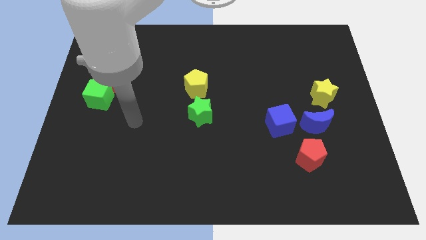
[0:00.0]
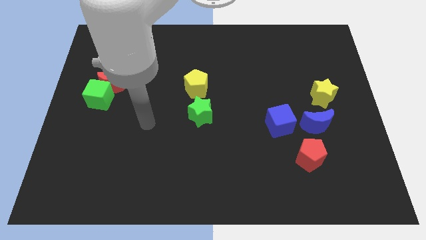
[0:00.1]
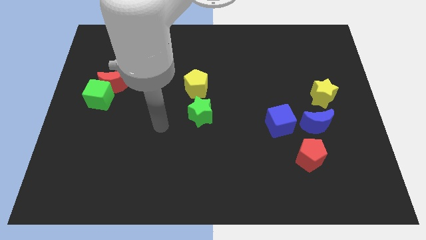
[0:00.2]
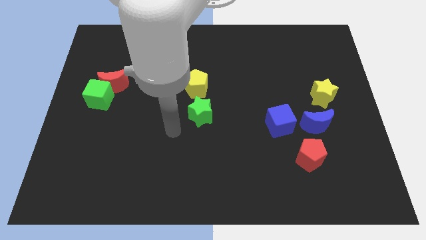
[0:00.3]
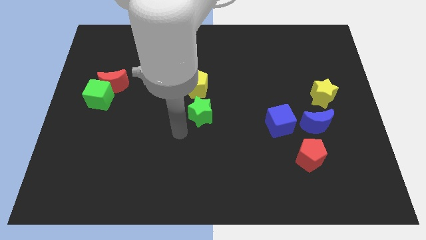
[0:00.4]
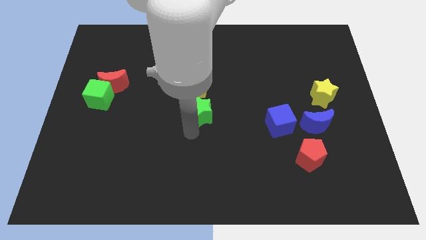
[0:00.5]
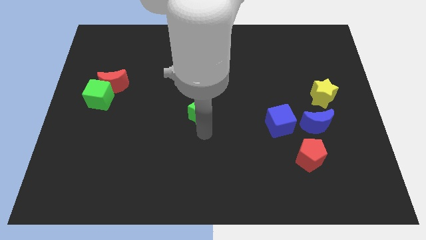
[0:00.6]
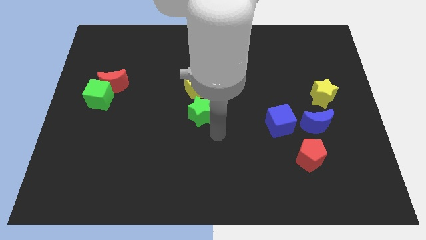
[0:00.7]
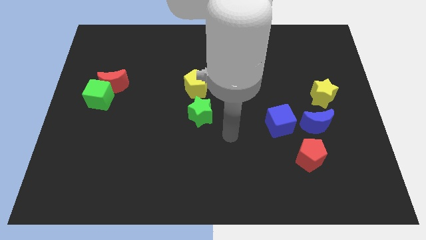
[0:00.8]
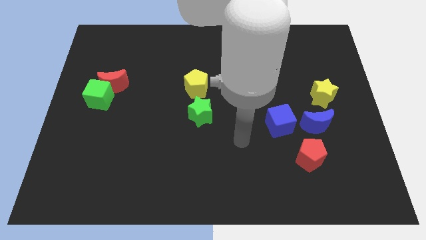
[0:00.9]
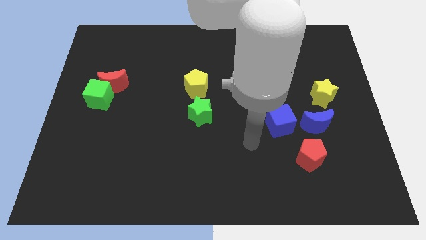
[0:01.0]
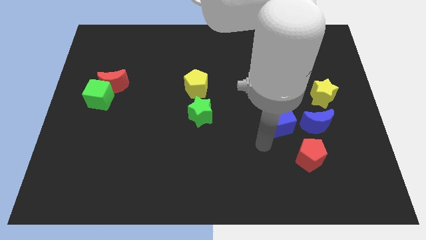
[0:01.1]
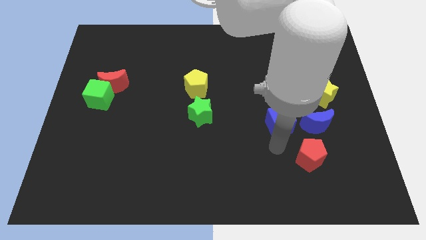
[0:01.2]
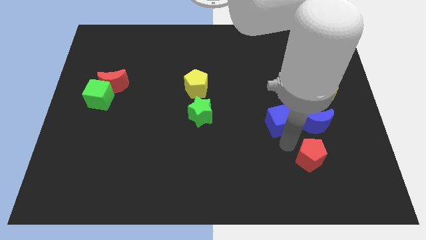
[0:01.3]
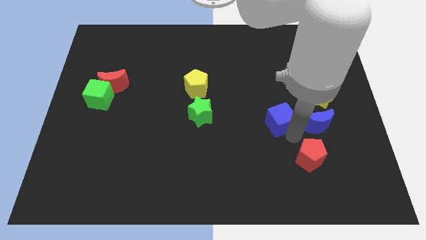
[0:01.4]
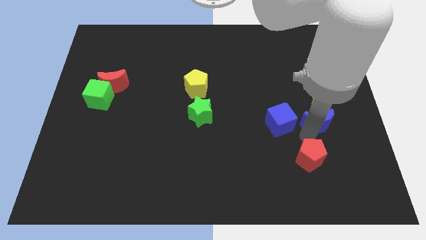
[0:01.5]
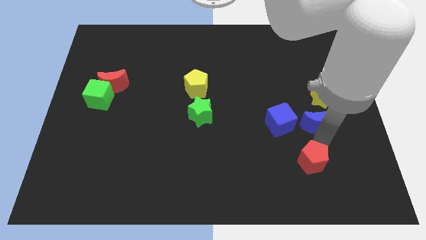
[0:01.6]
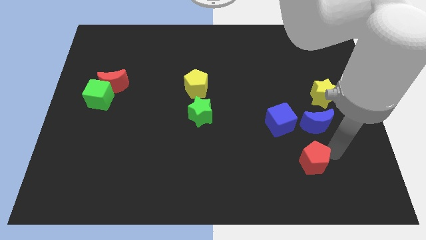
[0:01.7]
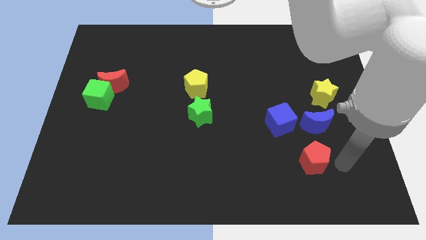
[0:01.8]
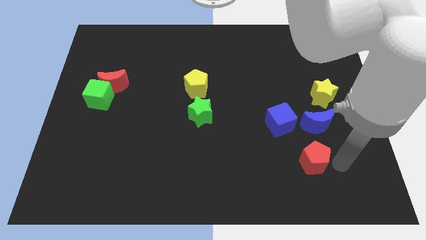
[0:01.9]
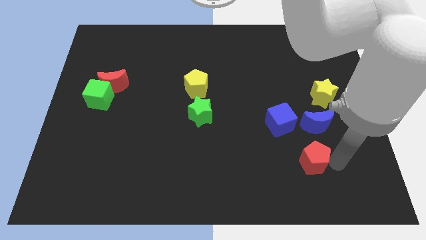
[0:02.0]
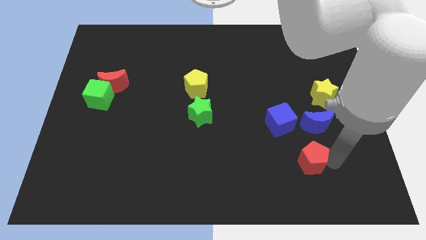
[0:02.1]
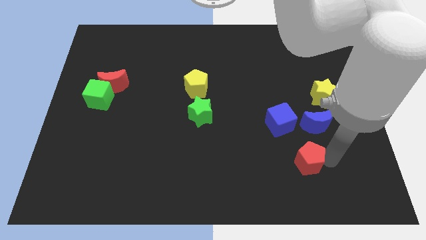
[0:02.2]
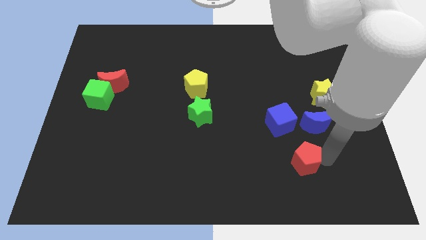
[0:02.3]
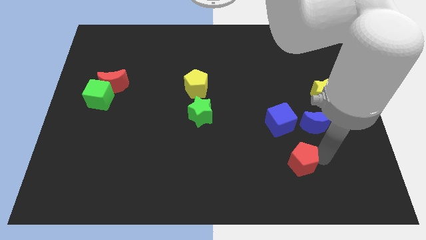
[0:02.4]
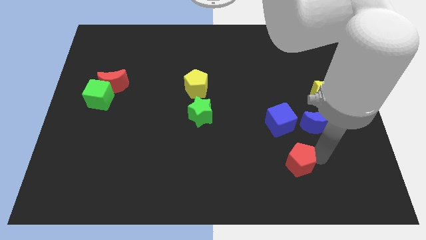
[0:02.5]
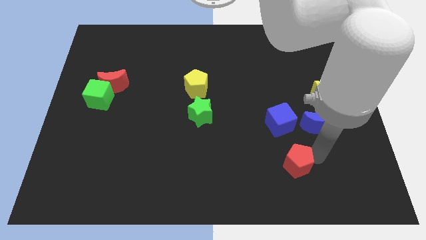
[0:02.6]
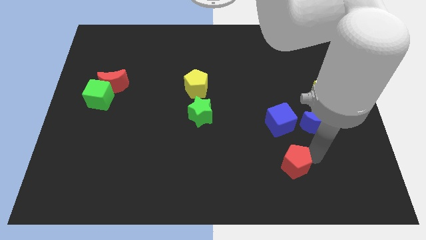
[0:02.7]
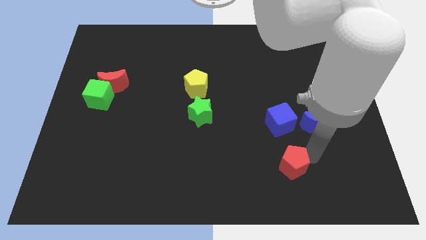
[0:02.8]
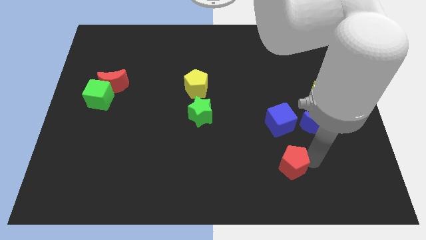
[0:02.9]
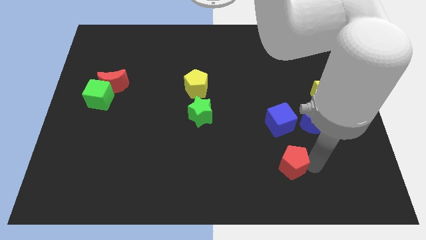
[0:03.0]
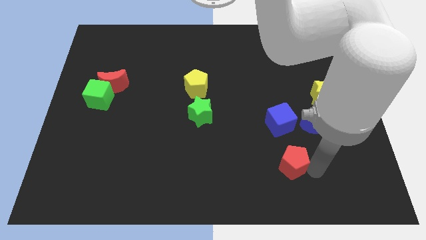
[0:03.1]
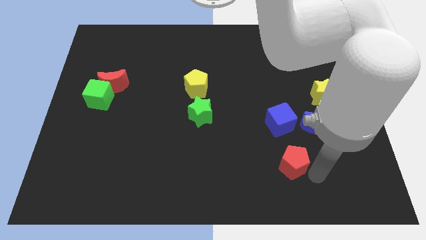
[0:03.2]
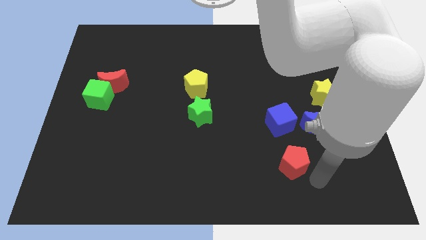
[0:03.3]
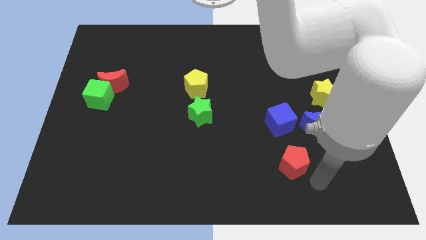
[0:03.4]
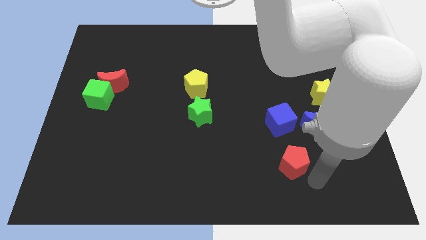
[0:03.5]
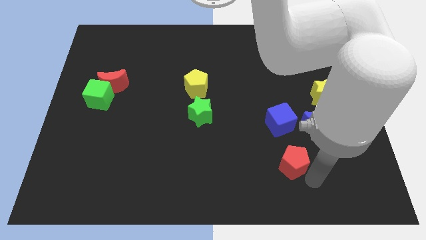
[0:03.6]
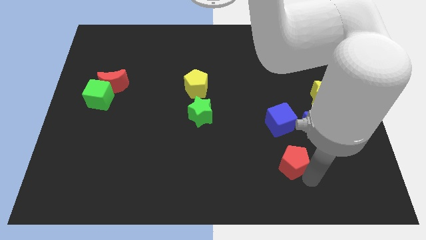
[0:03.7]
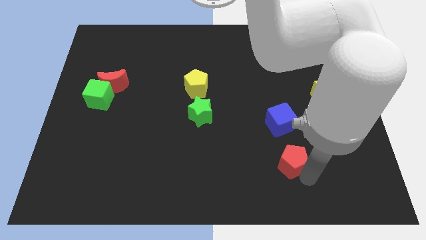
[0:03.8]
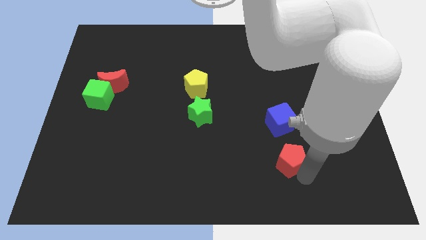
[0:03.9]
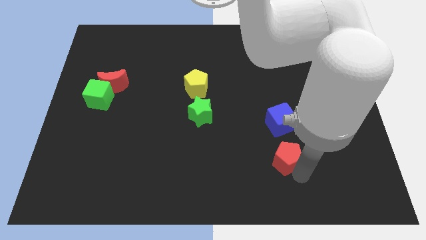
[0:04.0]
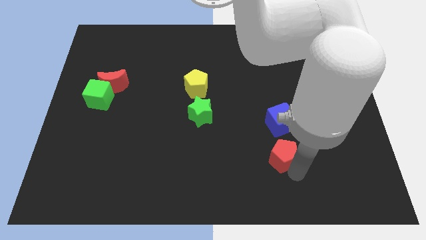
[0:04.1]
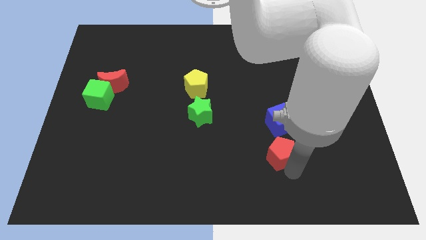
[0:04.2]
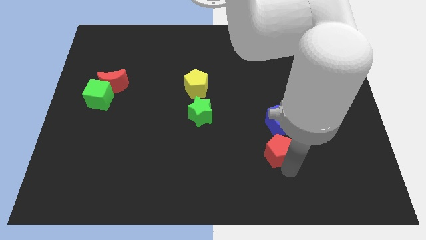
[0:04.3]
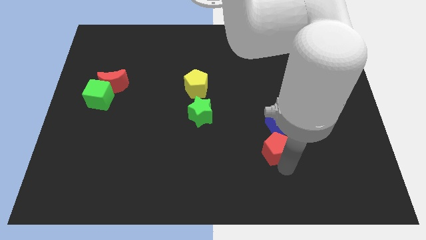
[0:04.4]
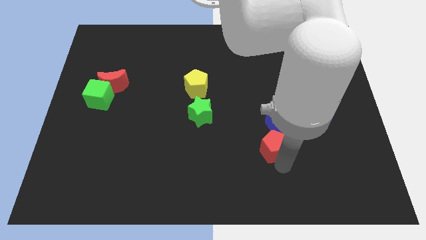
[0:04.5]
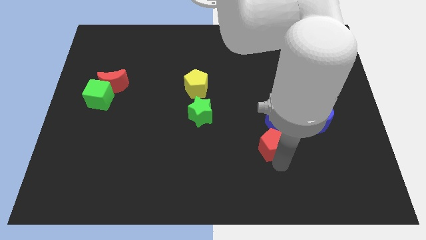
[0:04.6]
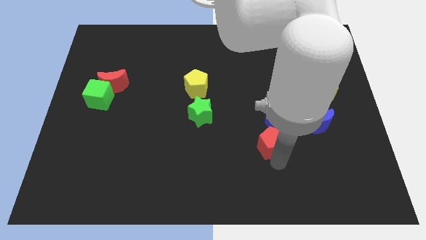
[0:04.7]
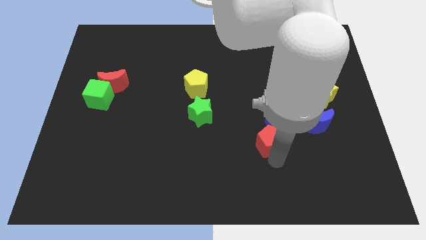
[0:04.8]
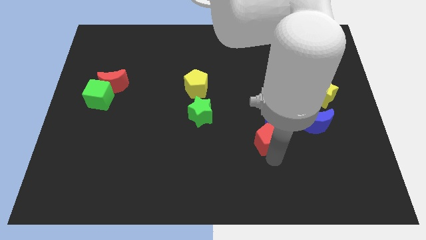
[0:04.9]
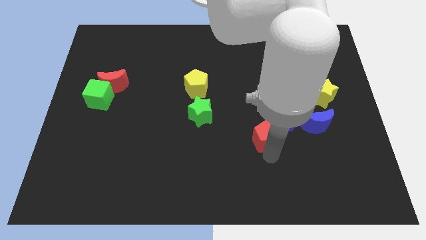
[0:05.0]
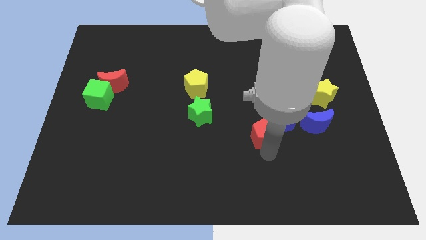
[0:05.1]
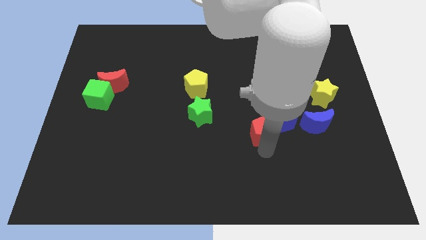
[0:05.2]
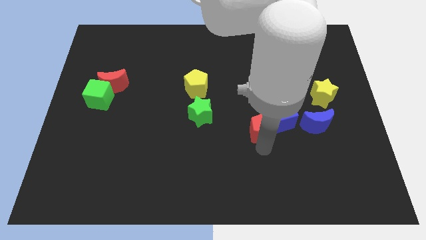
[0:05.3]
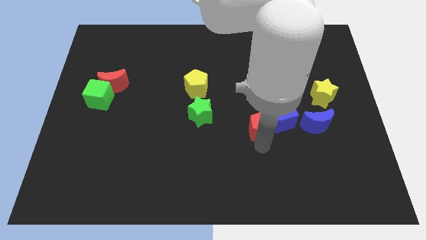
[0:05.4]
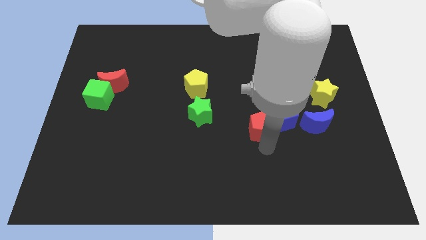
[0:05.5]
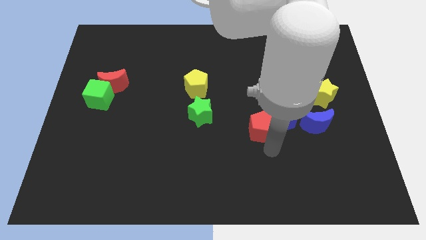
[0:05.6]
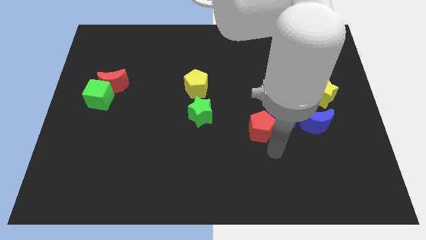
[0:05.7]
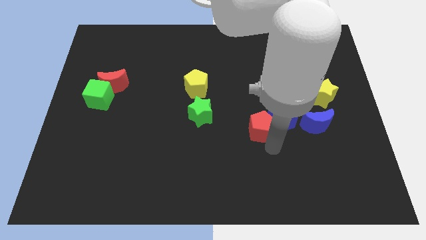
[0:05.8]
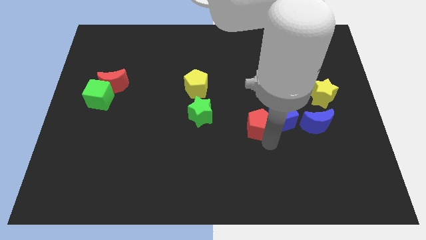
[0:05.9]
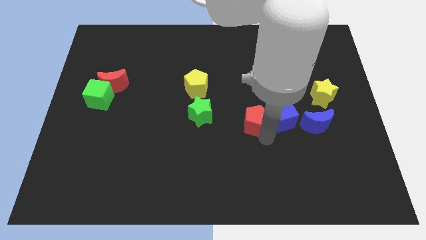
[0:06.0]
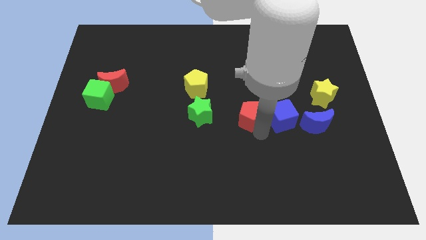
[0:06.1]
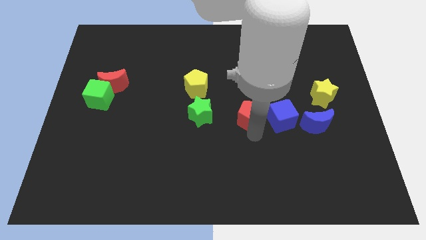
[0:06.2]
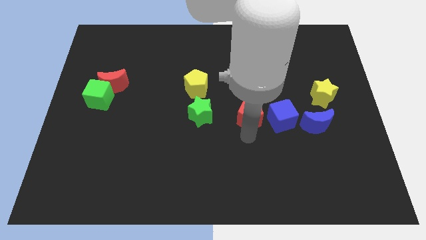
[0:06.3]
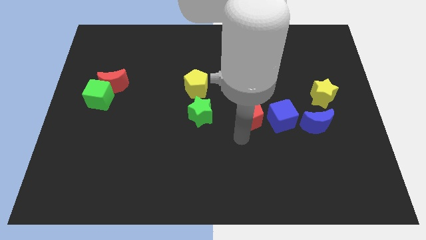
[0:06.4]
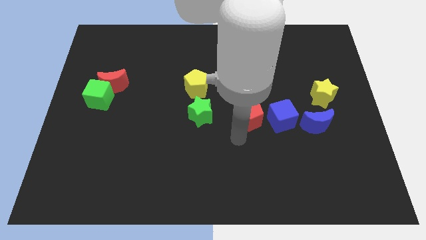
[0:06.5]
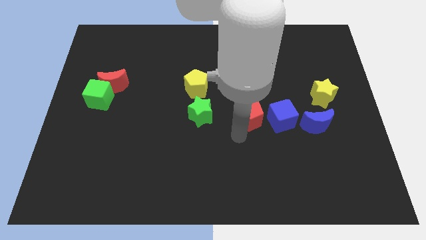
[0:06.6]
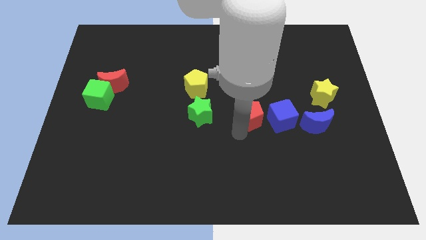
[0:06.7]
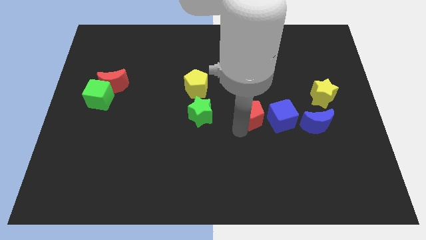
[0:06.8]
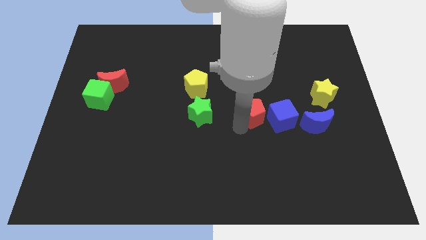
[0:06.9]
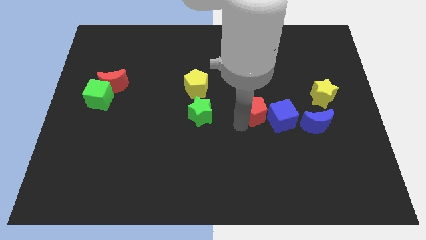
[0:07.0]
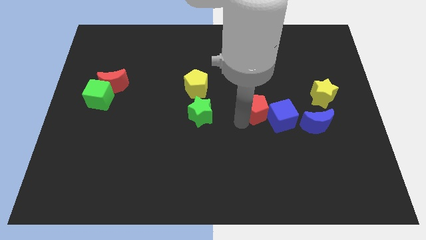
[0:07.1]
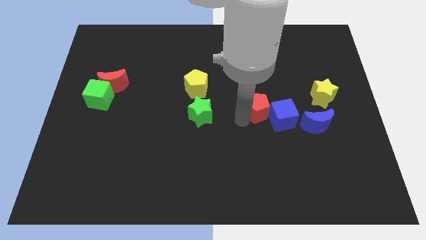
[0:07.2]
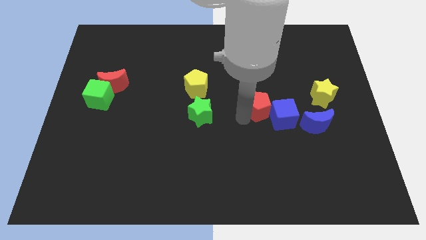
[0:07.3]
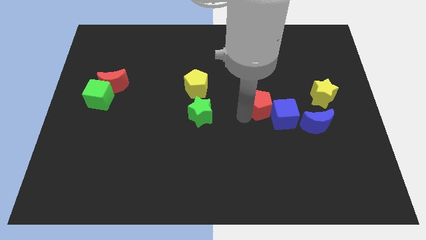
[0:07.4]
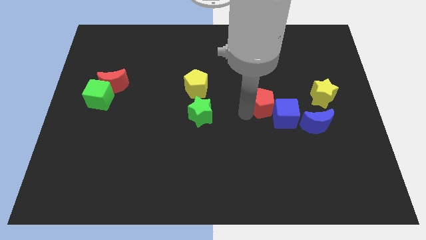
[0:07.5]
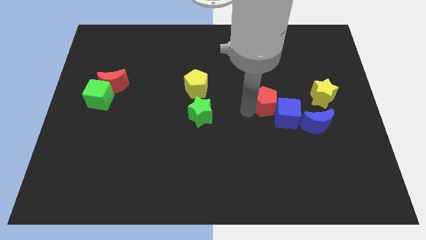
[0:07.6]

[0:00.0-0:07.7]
slide the red pentagon to the top side of the blue cube

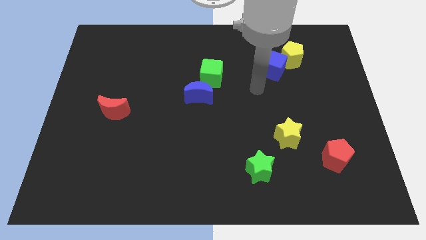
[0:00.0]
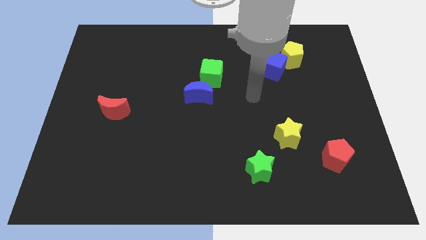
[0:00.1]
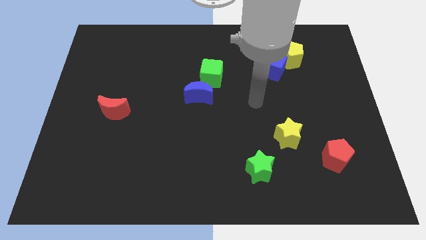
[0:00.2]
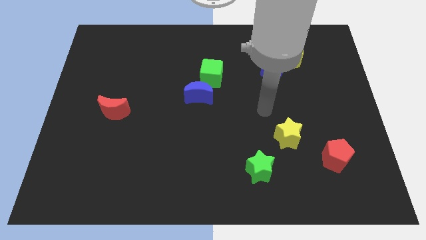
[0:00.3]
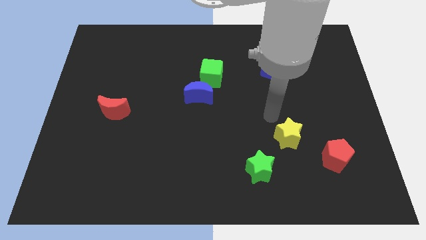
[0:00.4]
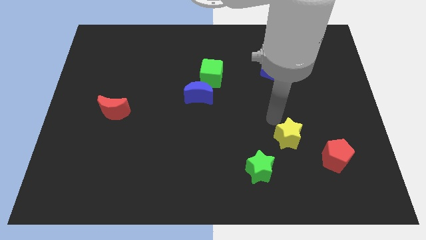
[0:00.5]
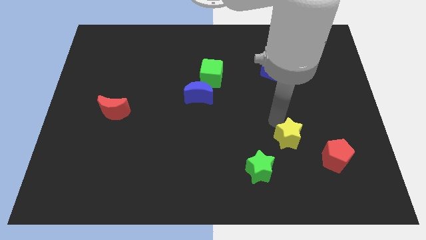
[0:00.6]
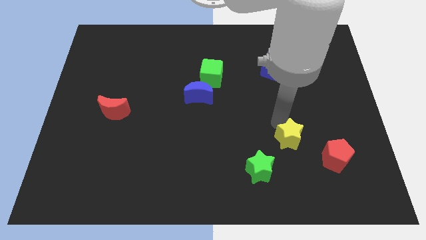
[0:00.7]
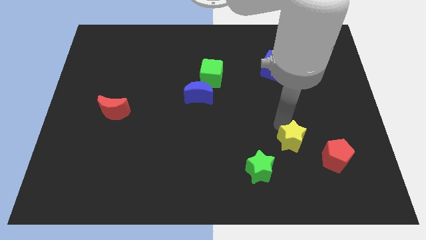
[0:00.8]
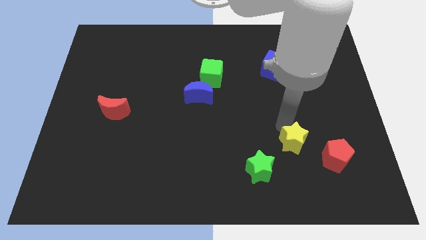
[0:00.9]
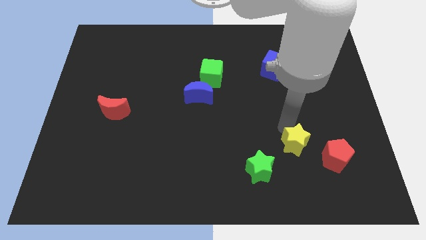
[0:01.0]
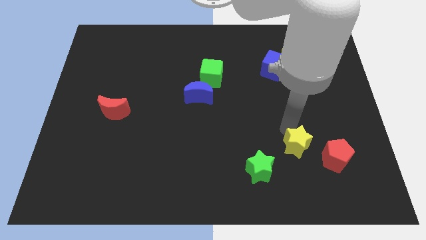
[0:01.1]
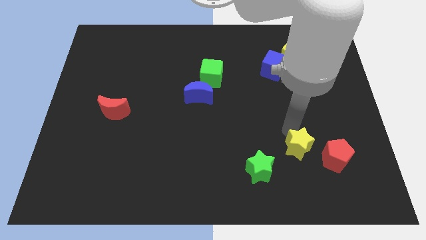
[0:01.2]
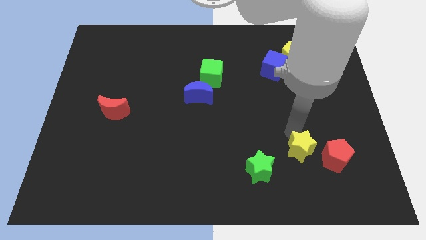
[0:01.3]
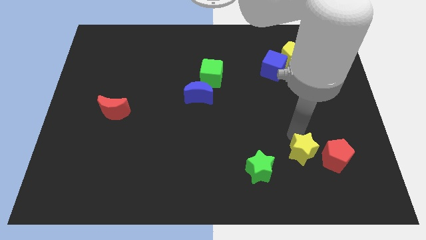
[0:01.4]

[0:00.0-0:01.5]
put the yellow star just right of the green star
